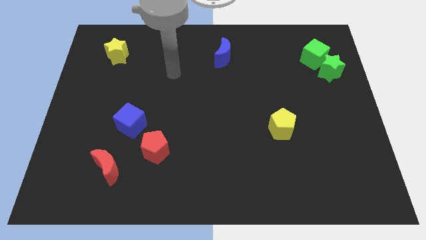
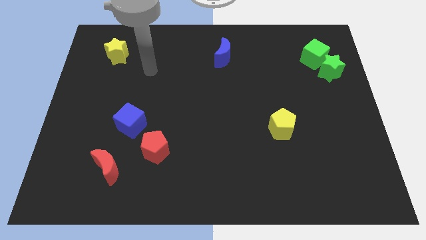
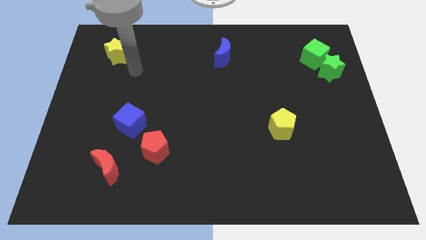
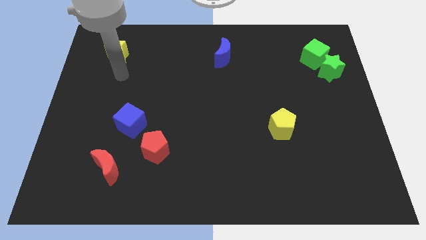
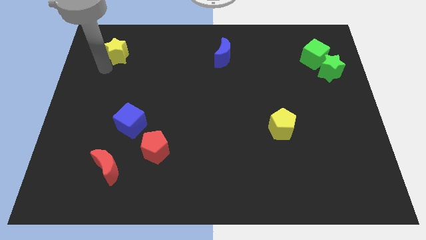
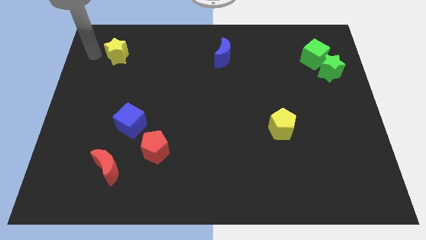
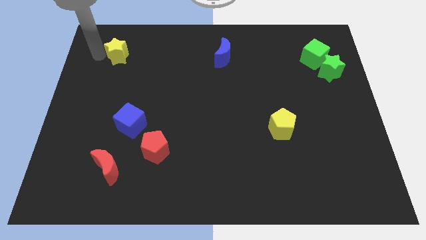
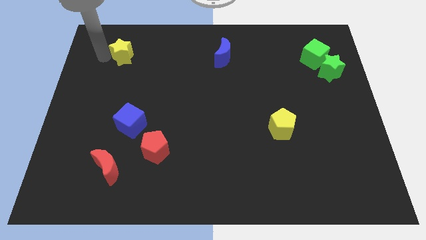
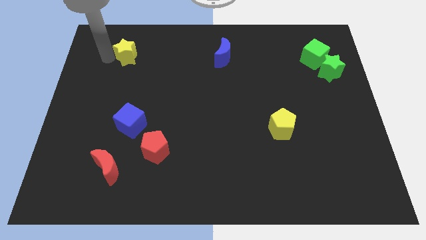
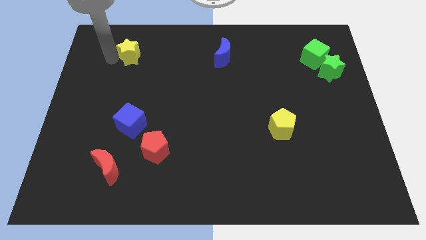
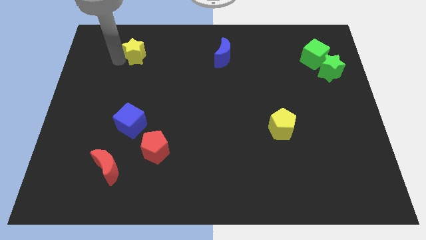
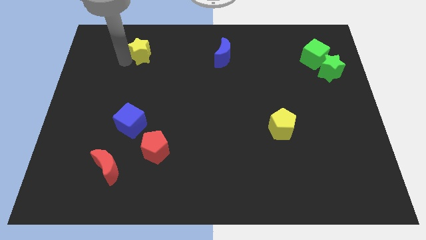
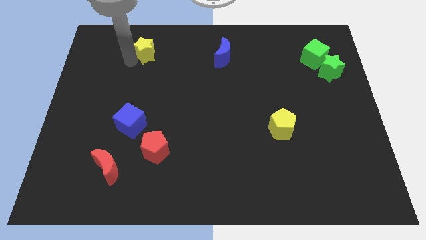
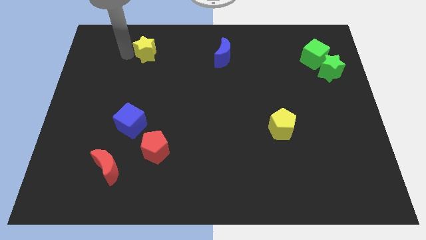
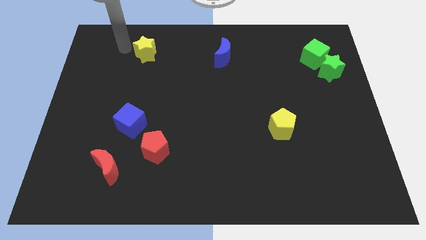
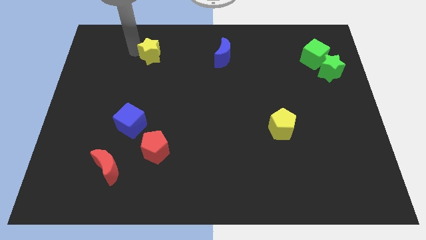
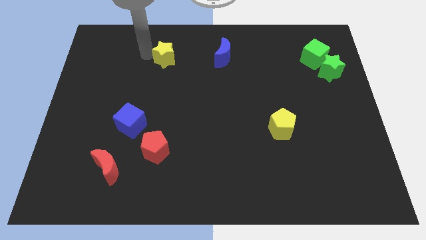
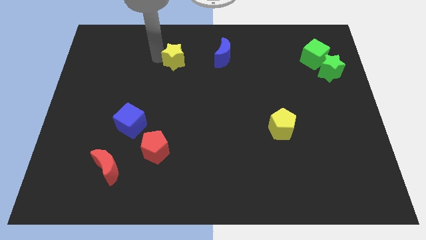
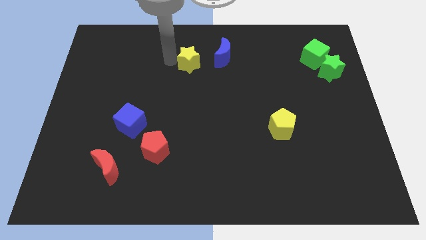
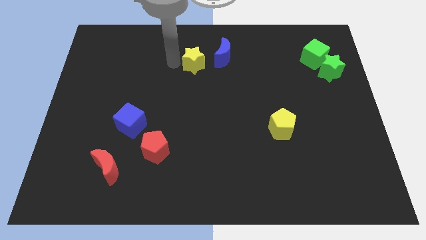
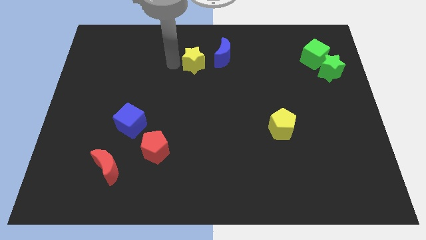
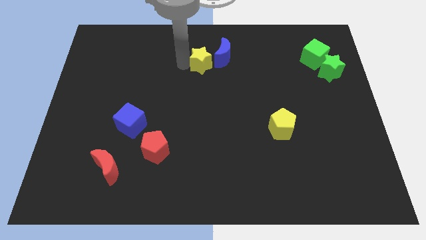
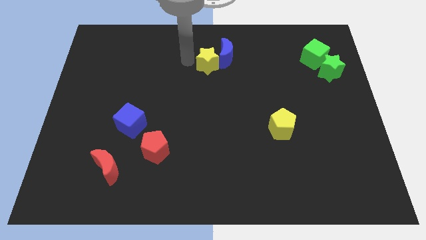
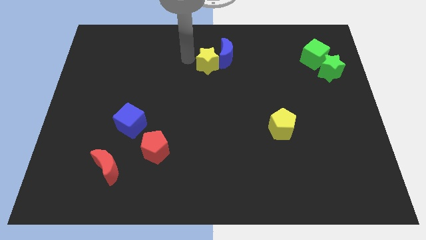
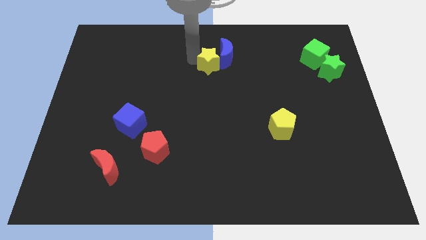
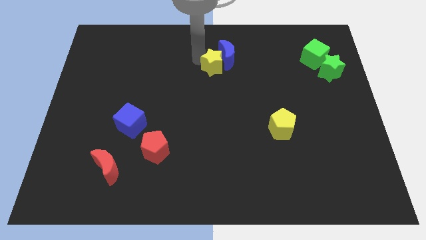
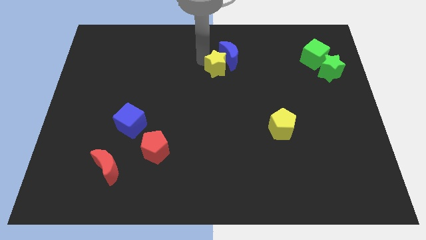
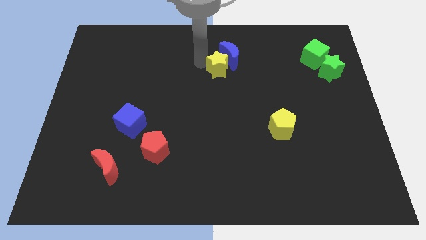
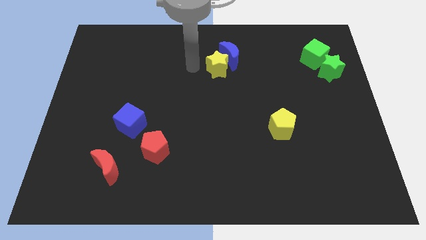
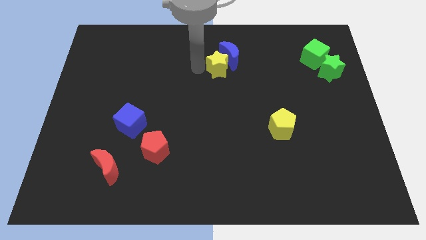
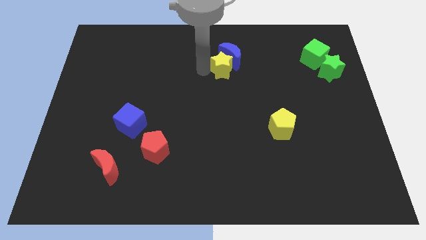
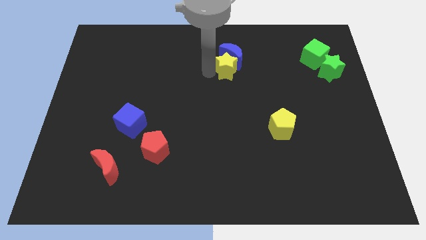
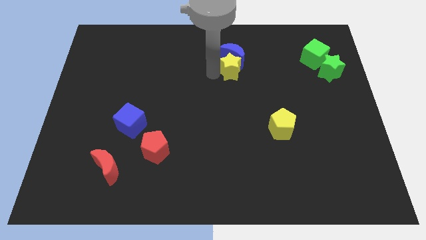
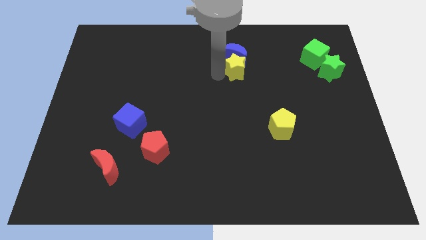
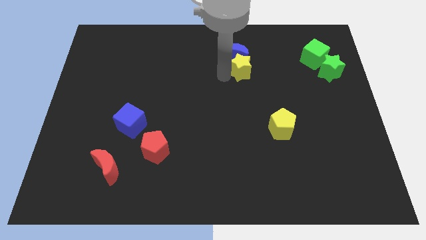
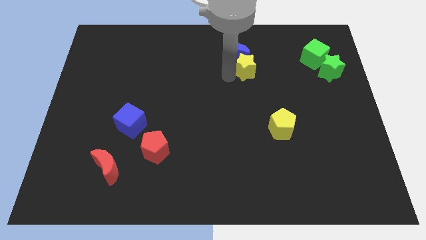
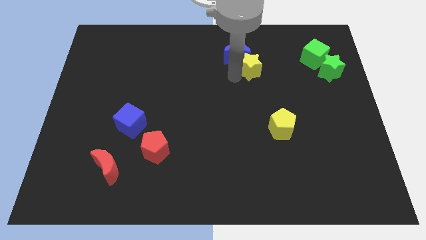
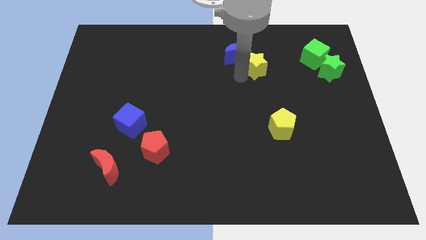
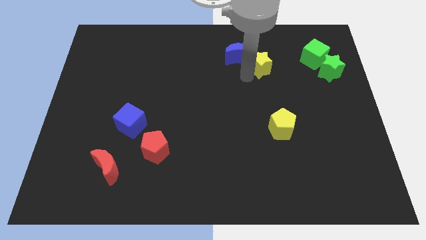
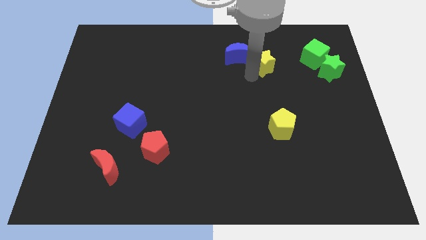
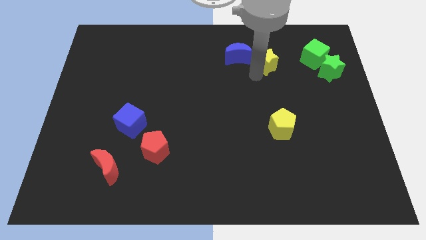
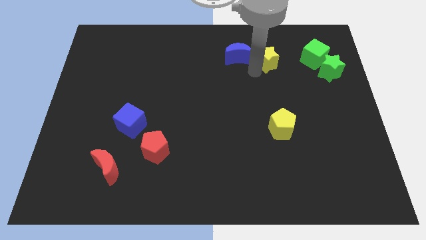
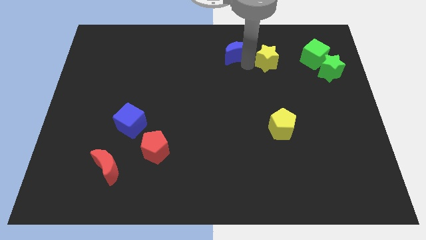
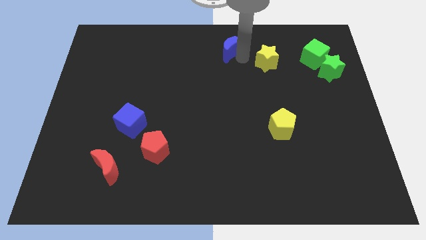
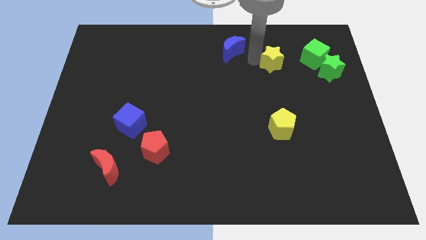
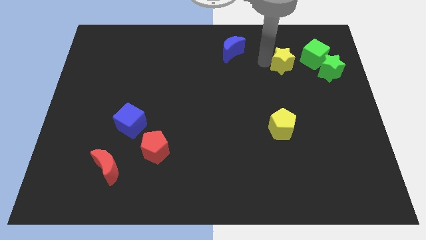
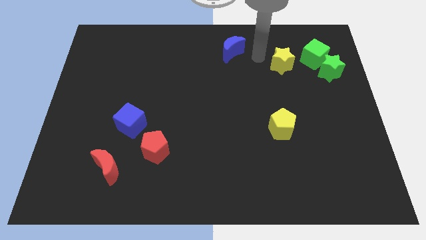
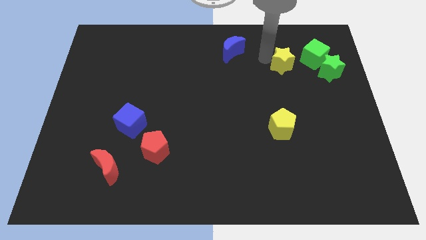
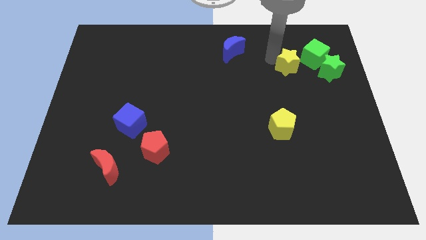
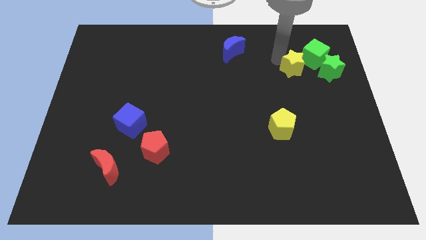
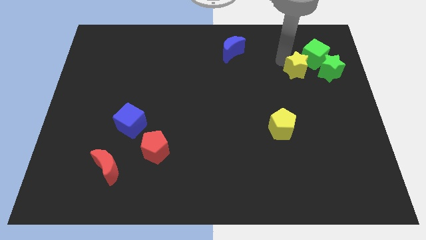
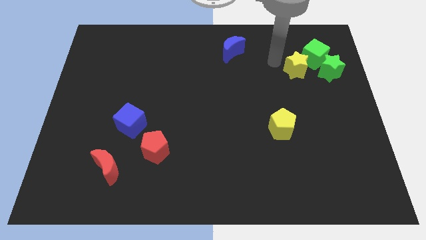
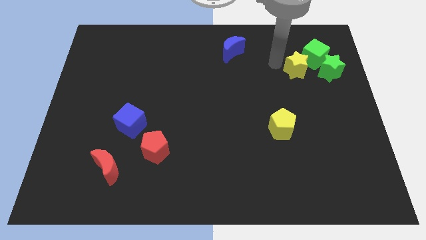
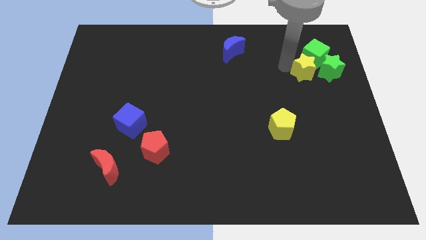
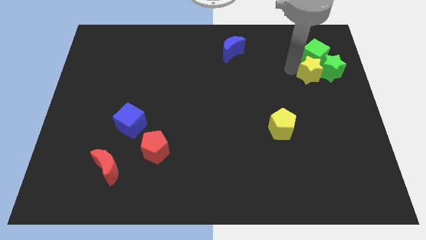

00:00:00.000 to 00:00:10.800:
put the yellow star towards the green star

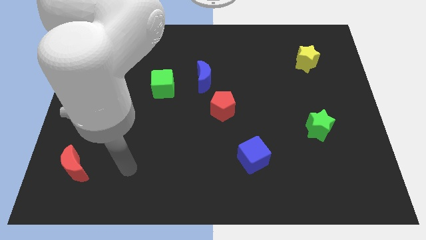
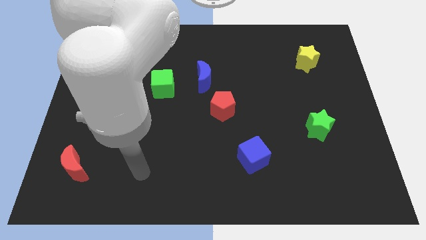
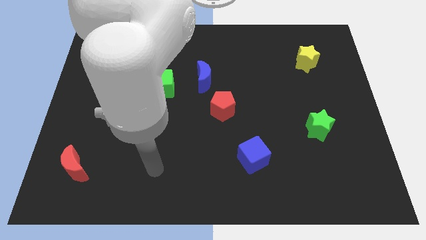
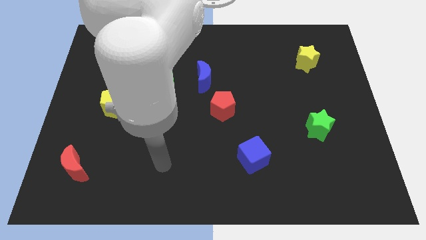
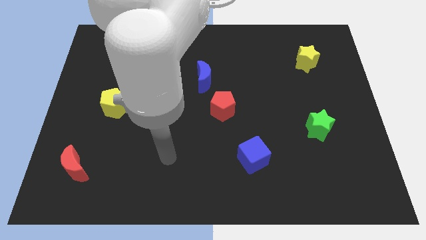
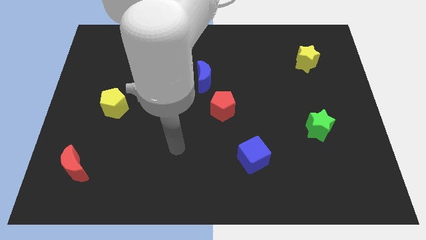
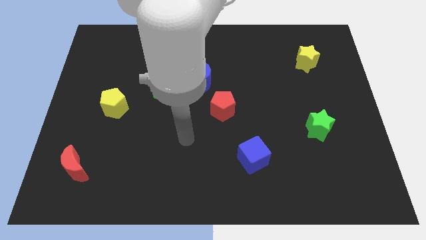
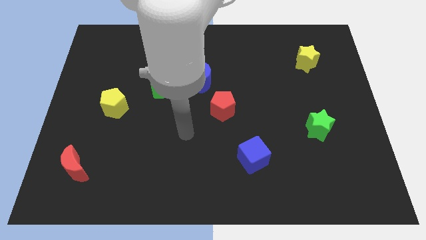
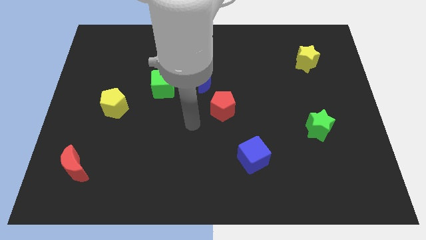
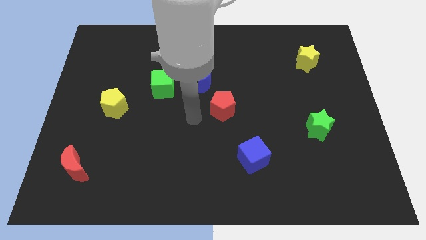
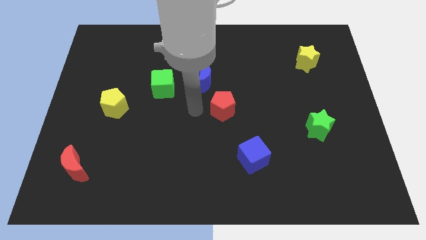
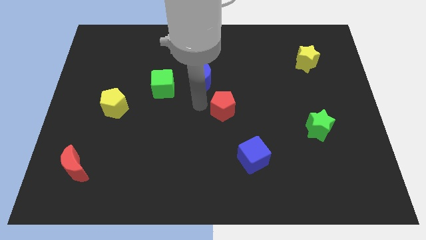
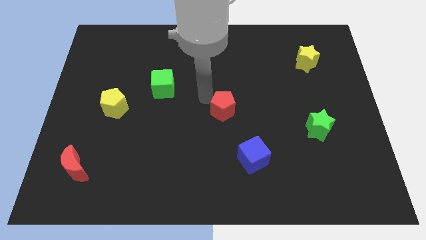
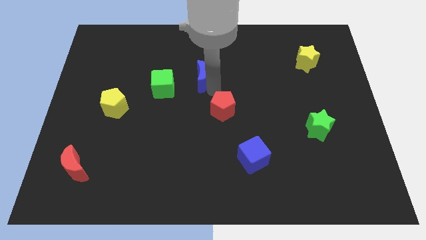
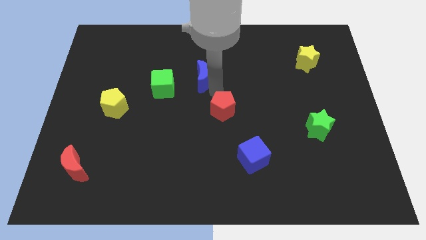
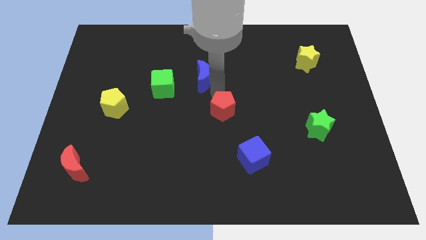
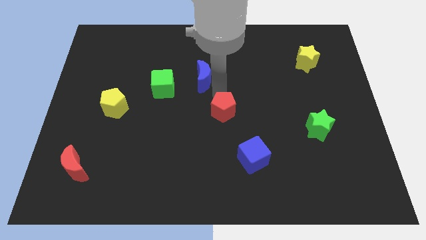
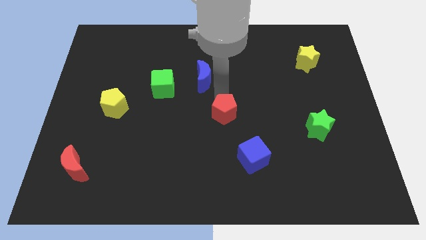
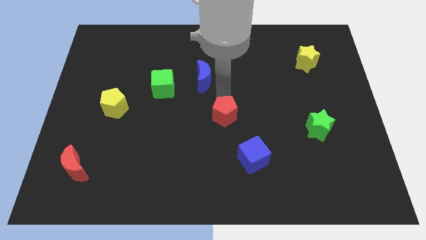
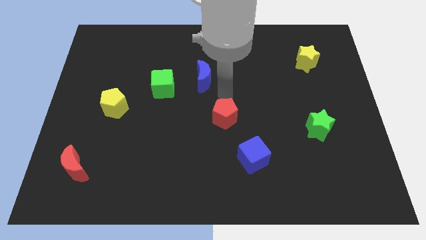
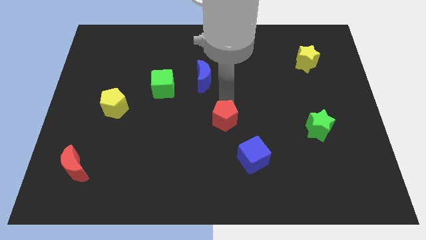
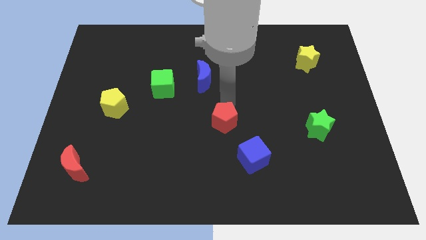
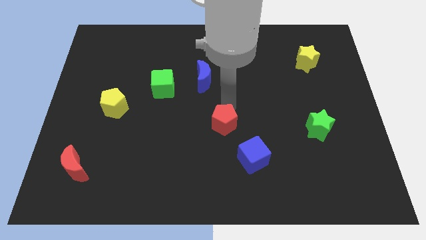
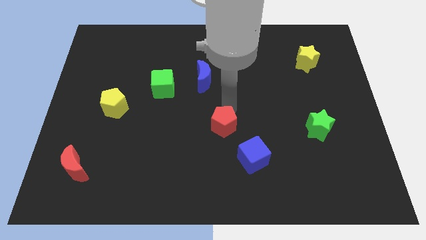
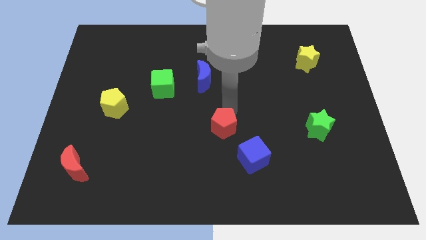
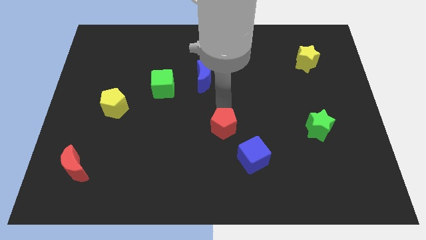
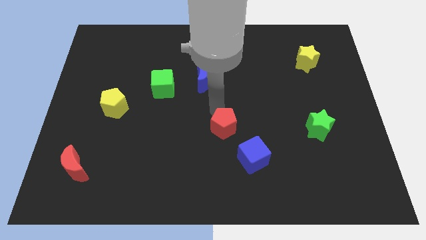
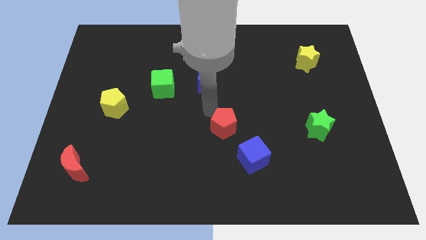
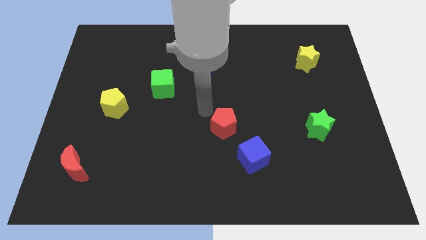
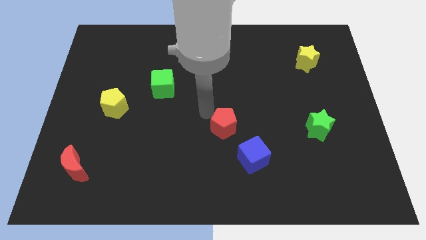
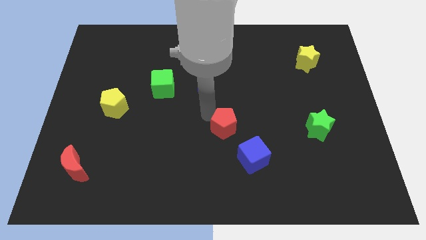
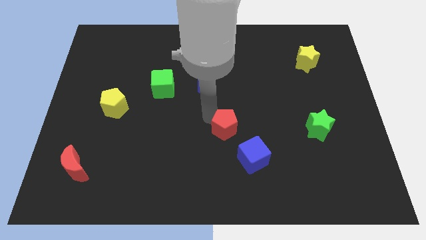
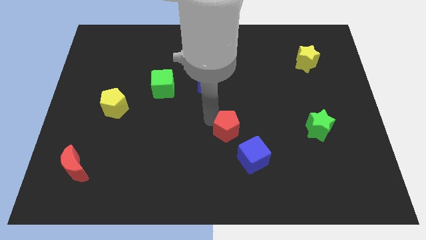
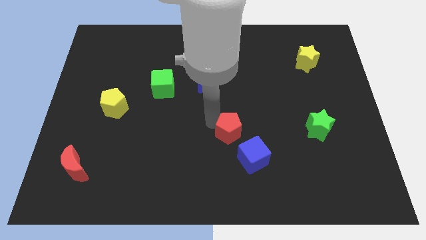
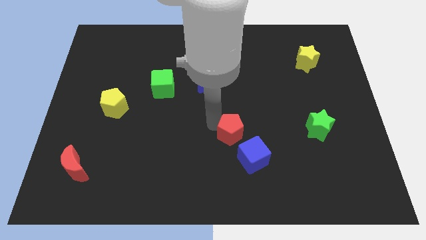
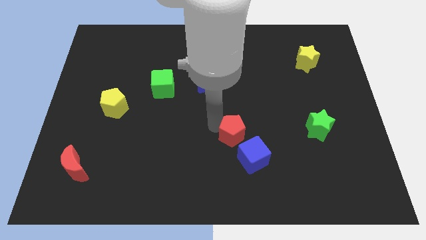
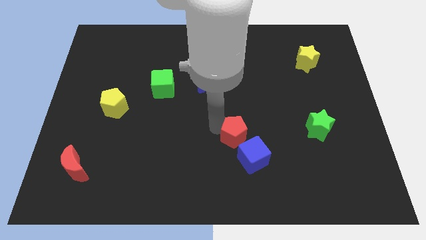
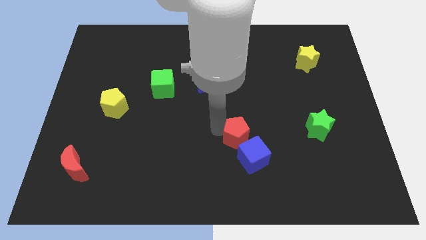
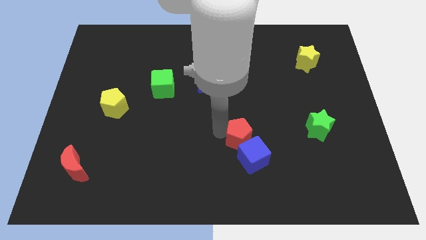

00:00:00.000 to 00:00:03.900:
move the red pentagon next to the blue cube
